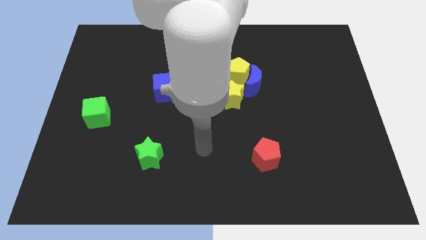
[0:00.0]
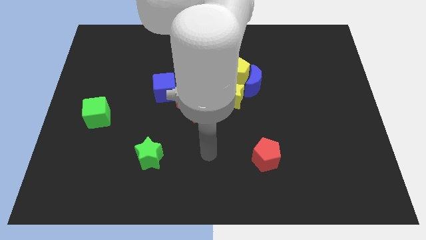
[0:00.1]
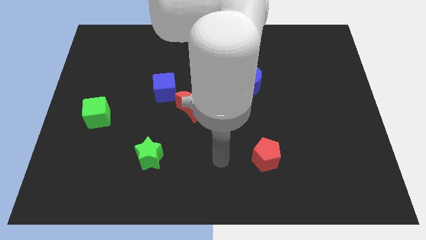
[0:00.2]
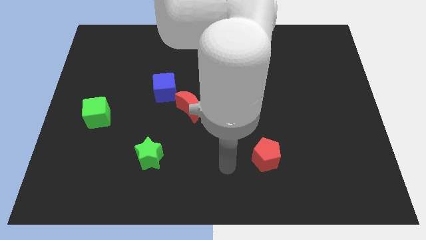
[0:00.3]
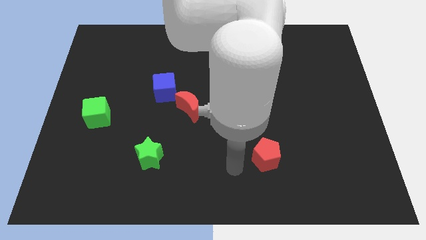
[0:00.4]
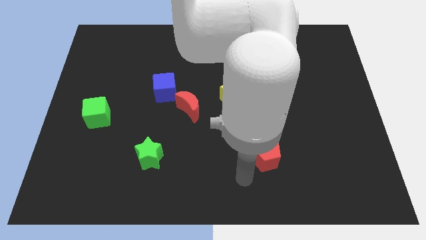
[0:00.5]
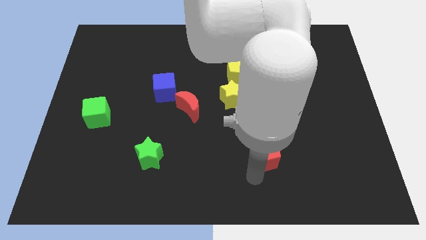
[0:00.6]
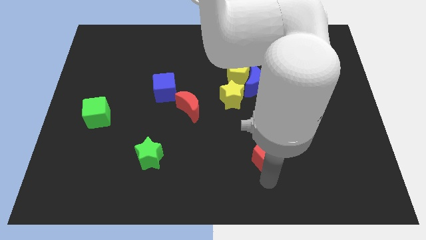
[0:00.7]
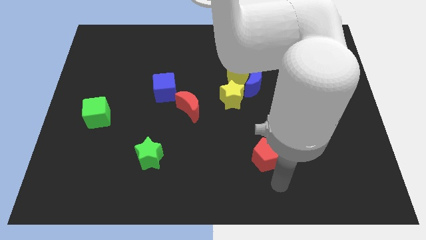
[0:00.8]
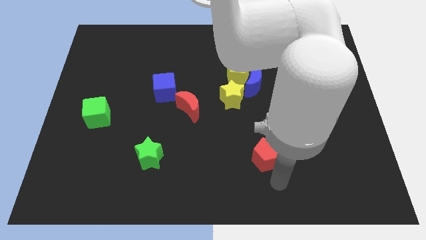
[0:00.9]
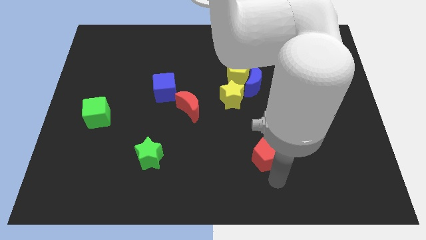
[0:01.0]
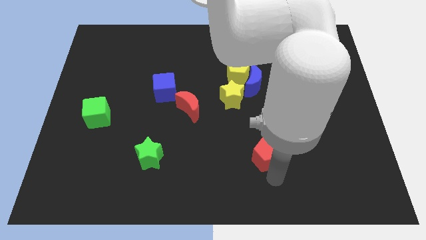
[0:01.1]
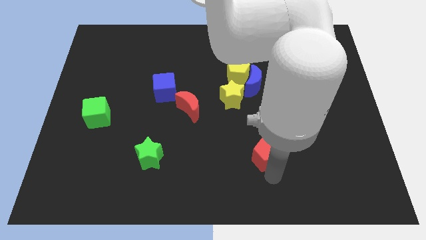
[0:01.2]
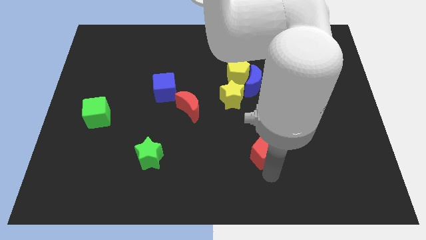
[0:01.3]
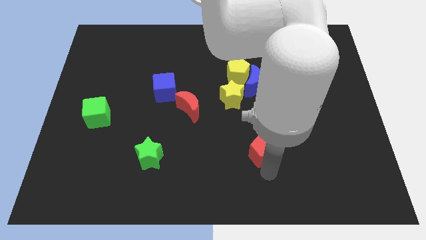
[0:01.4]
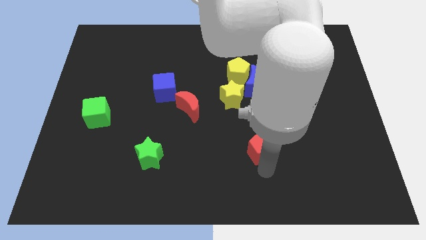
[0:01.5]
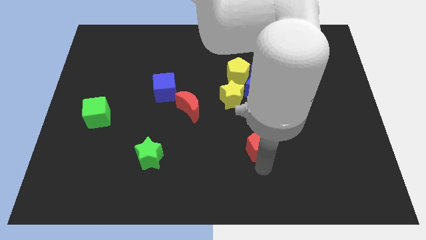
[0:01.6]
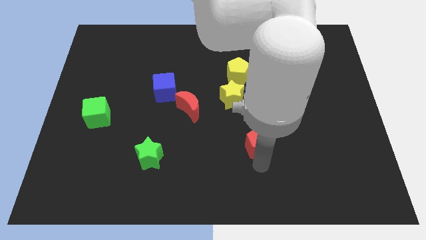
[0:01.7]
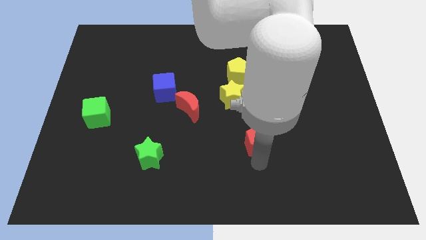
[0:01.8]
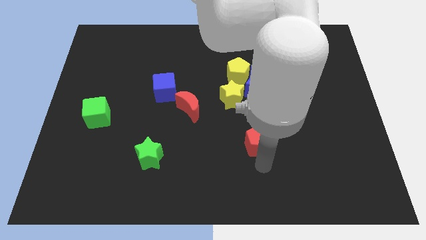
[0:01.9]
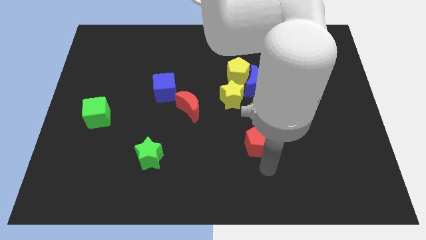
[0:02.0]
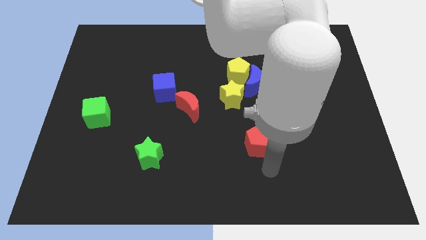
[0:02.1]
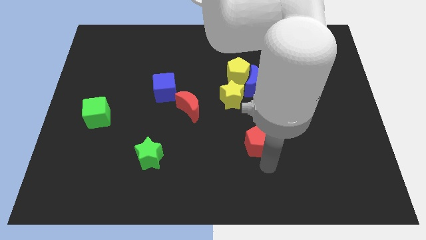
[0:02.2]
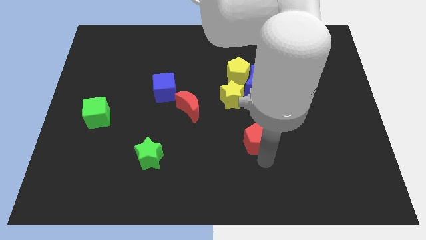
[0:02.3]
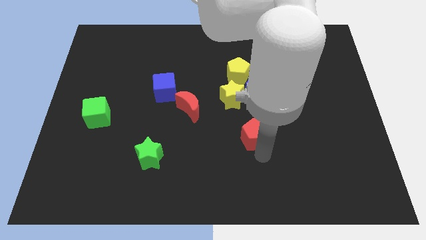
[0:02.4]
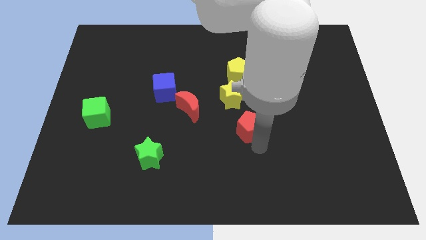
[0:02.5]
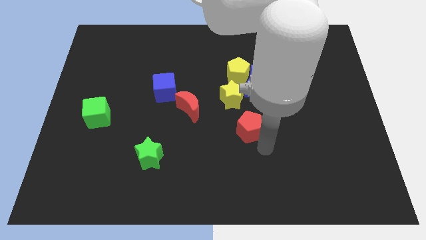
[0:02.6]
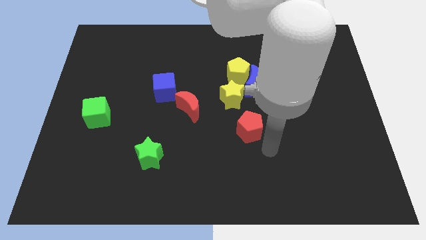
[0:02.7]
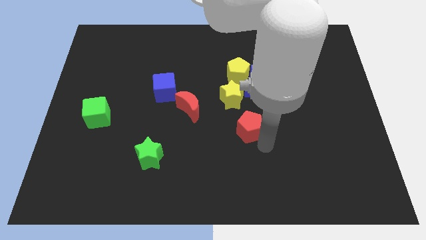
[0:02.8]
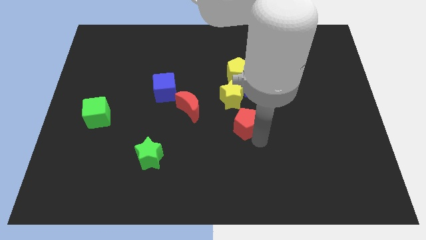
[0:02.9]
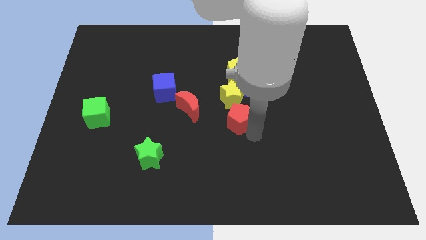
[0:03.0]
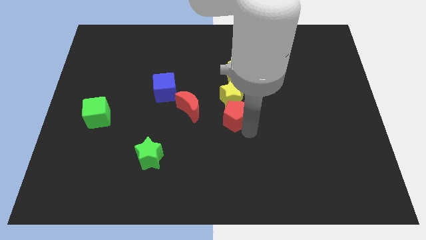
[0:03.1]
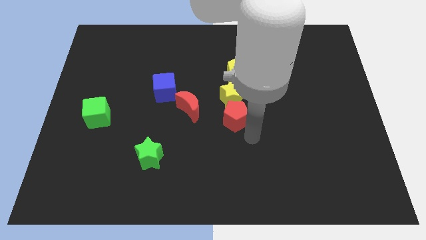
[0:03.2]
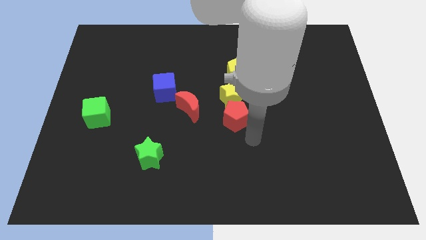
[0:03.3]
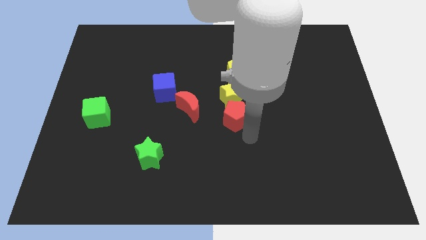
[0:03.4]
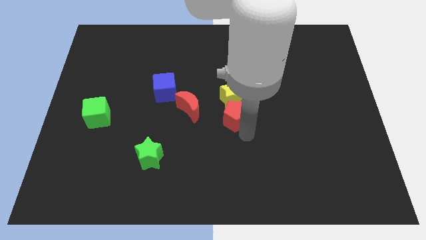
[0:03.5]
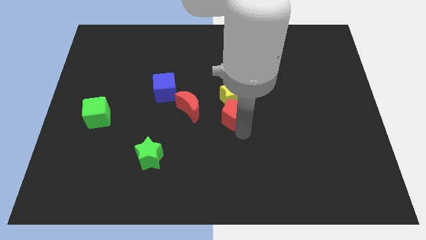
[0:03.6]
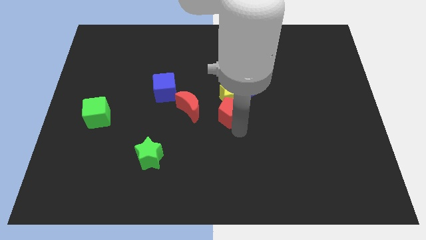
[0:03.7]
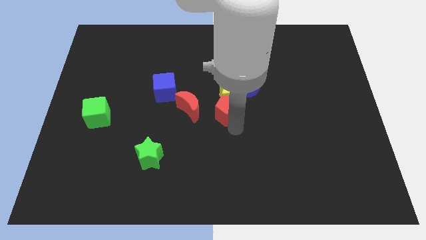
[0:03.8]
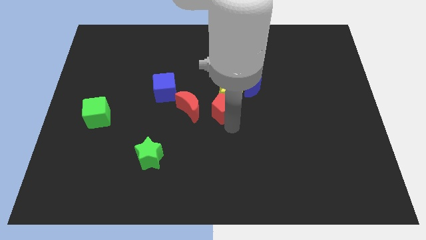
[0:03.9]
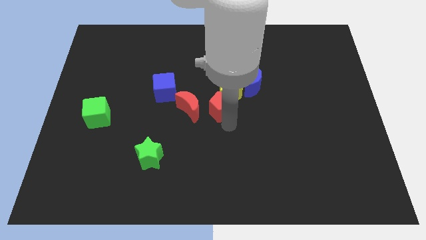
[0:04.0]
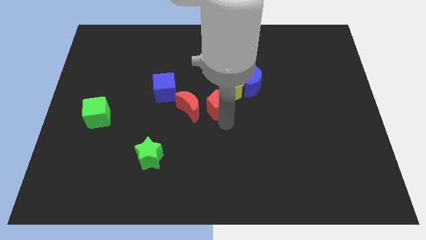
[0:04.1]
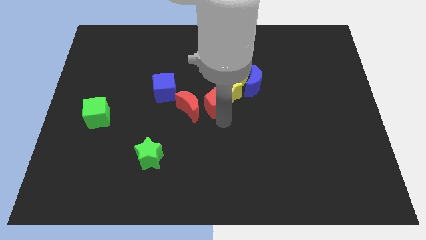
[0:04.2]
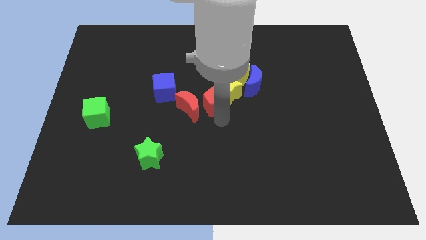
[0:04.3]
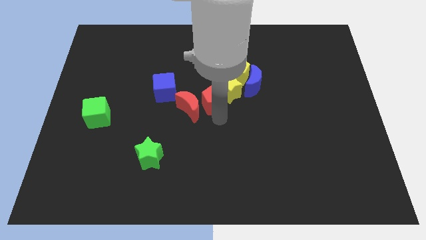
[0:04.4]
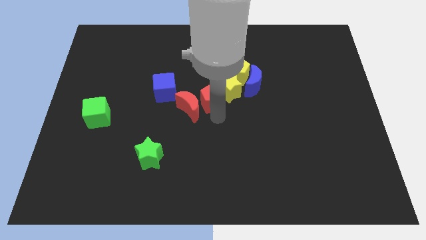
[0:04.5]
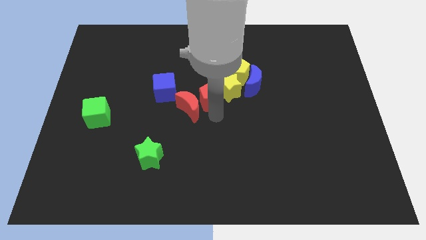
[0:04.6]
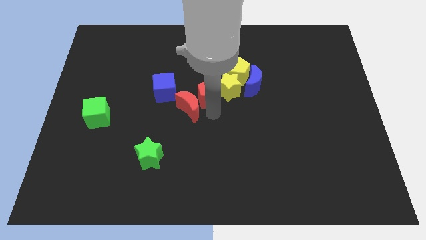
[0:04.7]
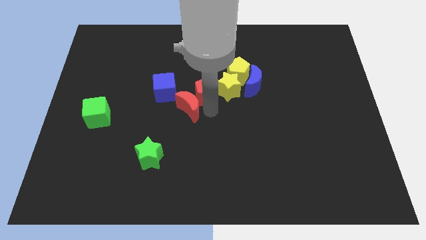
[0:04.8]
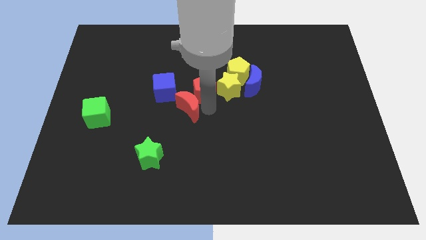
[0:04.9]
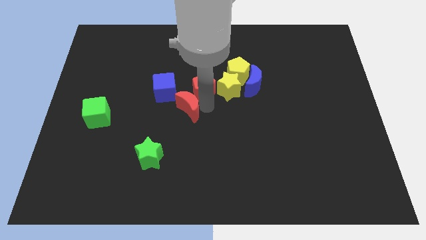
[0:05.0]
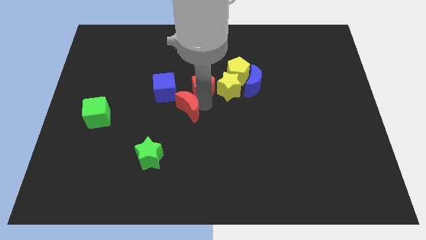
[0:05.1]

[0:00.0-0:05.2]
slide the red pentagon to the top left side of the yellow star

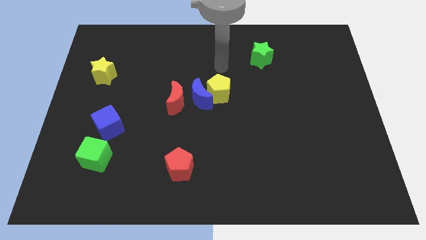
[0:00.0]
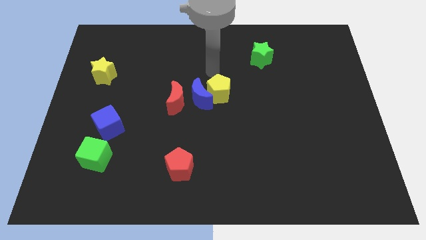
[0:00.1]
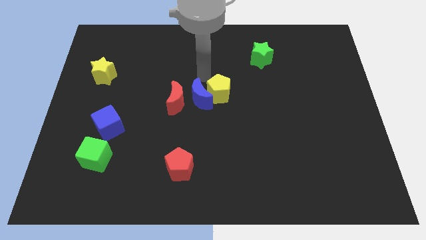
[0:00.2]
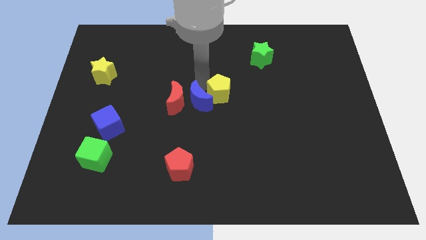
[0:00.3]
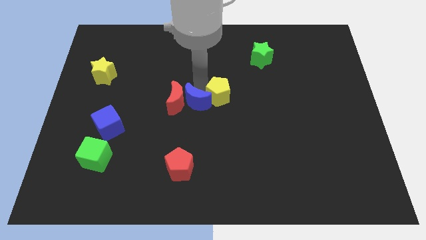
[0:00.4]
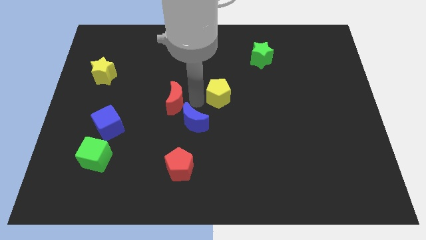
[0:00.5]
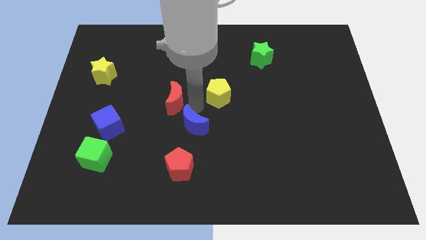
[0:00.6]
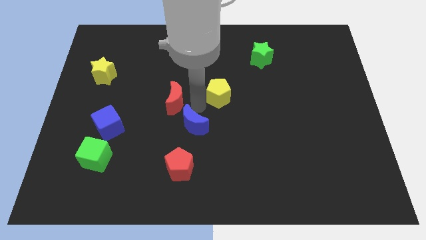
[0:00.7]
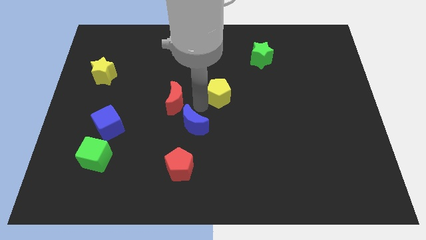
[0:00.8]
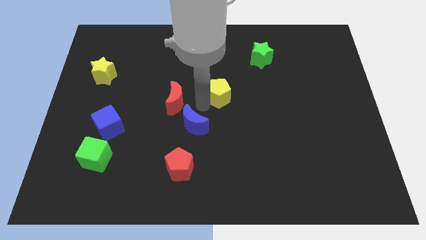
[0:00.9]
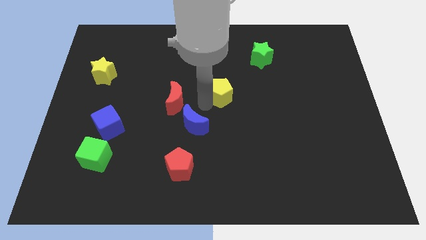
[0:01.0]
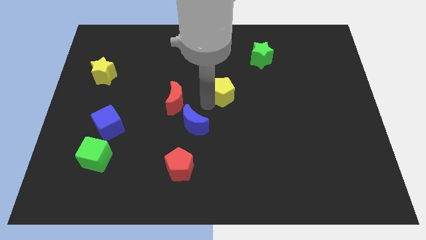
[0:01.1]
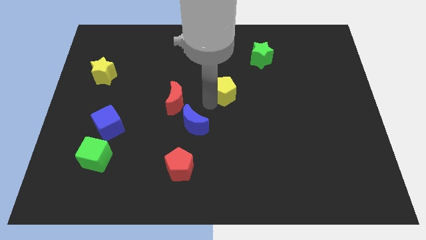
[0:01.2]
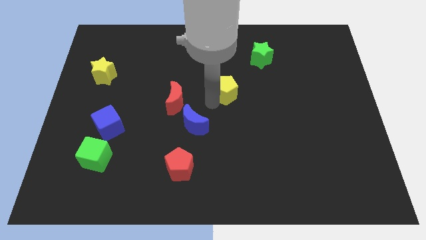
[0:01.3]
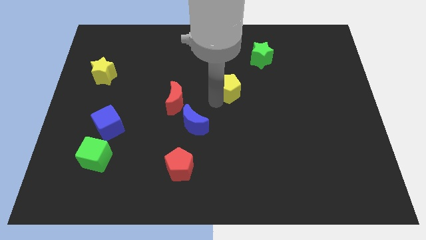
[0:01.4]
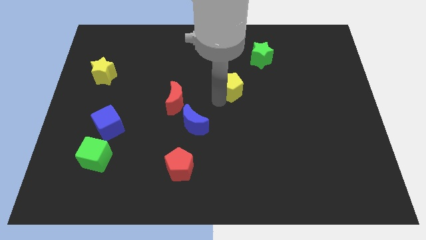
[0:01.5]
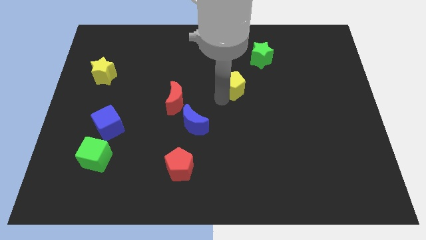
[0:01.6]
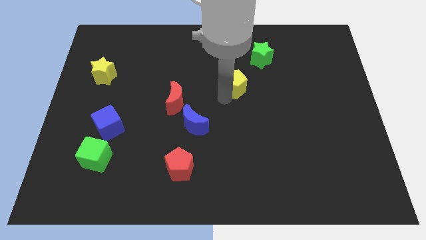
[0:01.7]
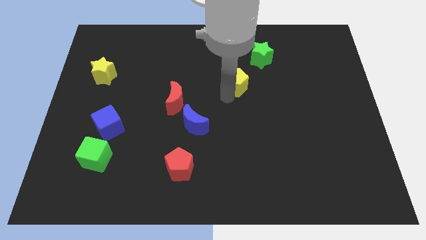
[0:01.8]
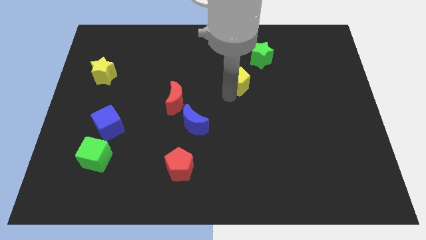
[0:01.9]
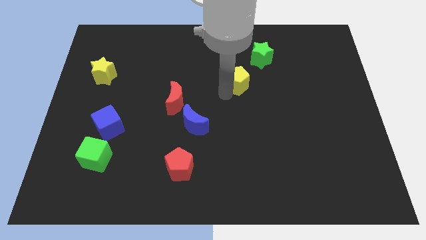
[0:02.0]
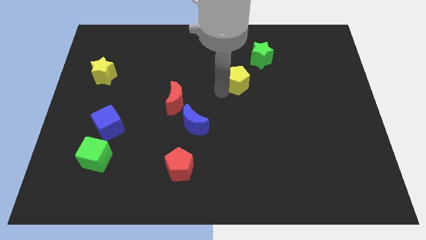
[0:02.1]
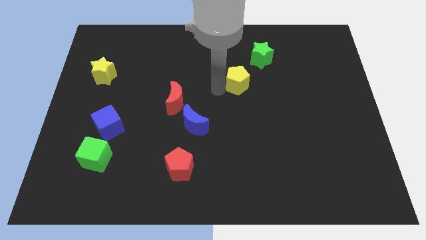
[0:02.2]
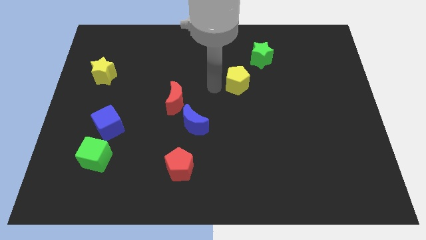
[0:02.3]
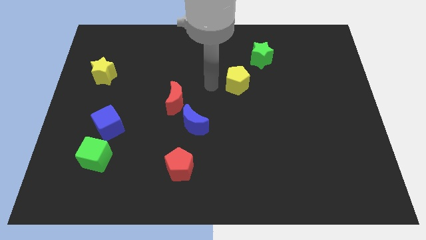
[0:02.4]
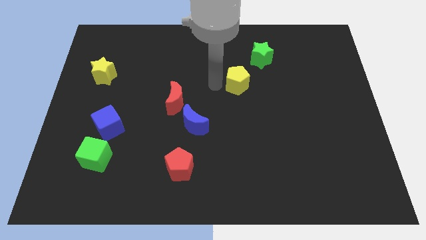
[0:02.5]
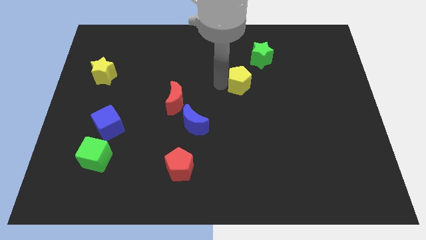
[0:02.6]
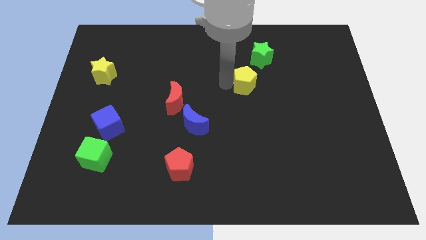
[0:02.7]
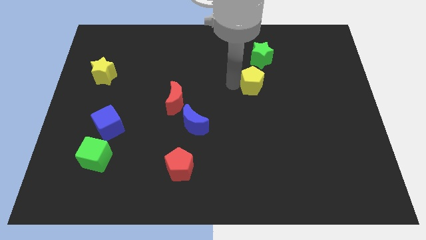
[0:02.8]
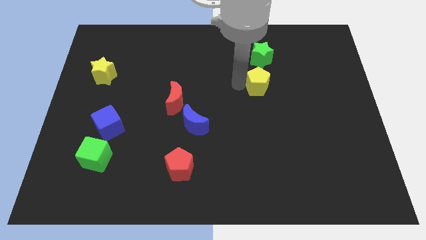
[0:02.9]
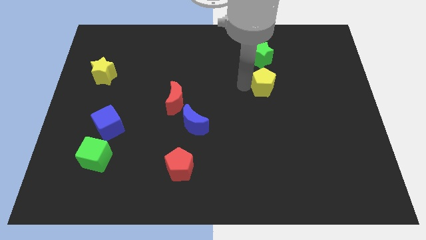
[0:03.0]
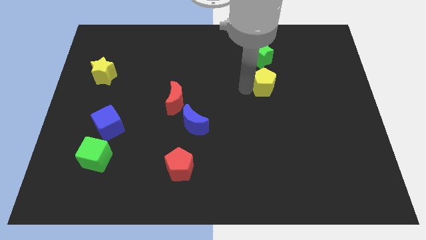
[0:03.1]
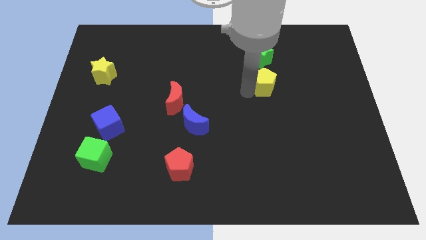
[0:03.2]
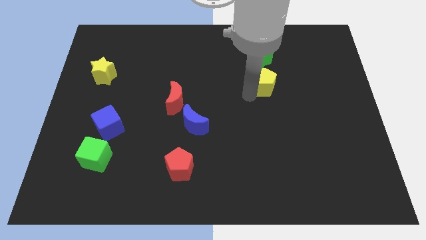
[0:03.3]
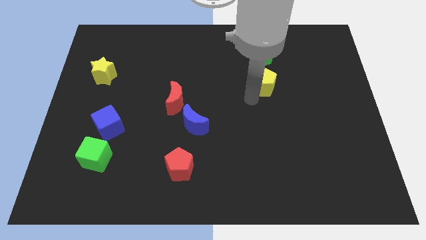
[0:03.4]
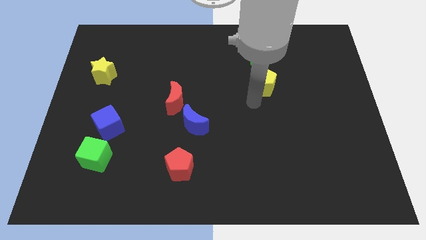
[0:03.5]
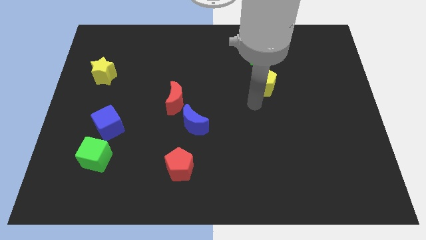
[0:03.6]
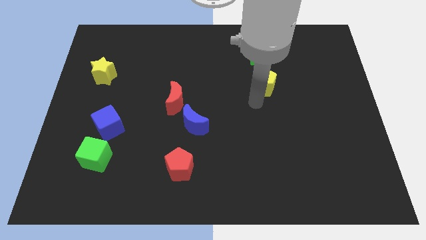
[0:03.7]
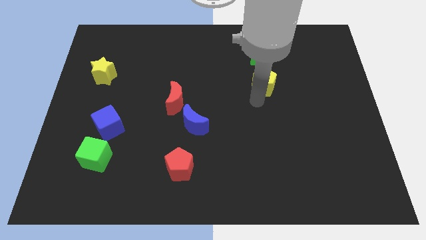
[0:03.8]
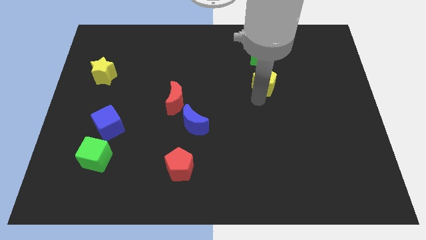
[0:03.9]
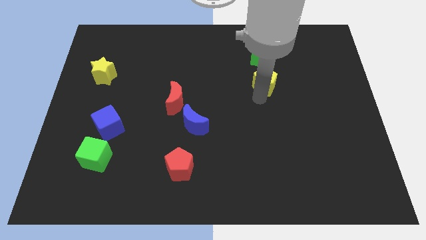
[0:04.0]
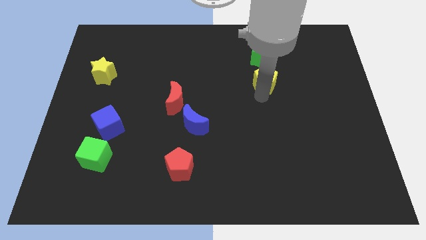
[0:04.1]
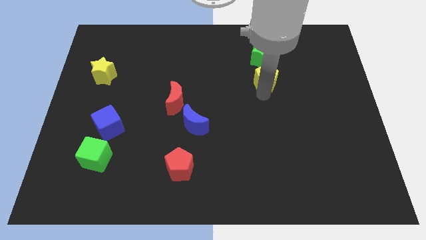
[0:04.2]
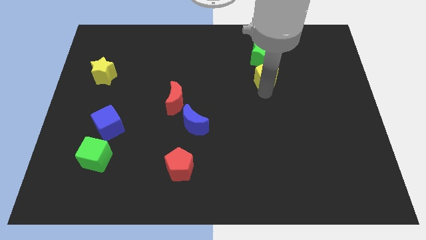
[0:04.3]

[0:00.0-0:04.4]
push the yellow pentagon to the bottom right side of the green star
